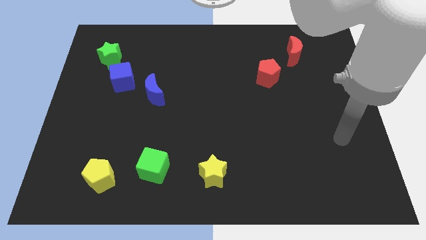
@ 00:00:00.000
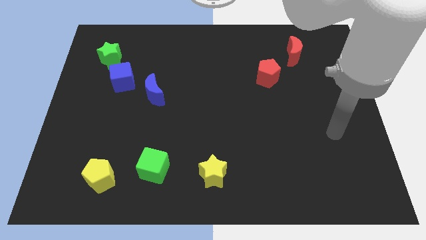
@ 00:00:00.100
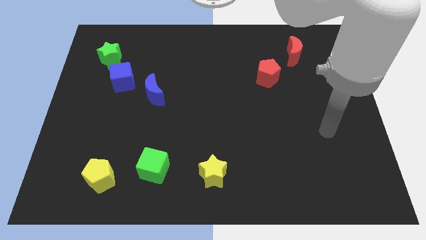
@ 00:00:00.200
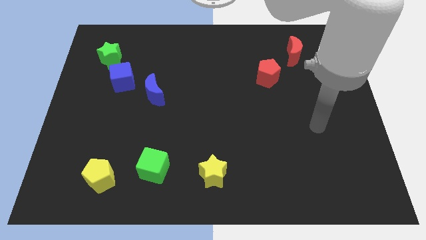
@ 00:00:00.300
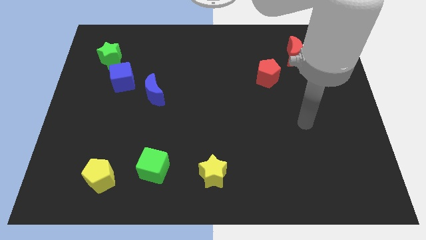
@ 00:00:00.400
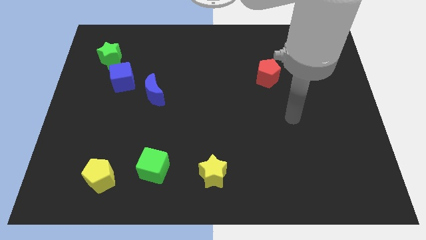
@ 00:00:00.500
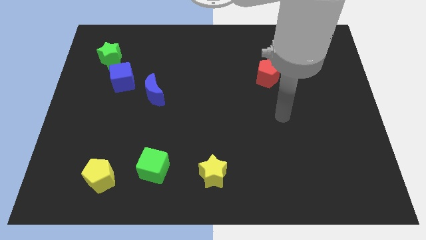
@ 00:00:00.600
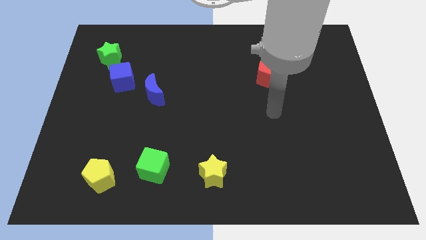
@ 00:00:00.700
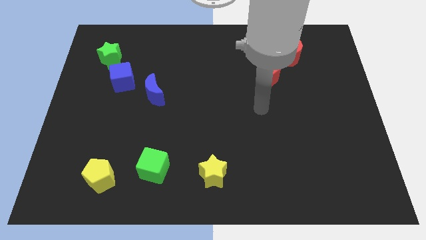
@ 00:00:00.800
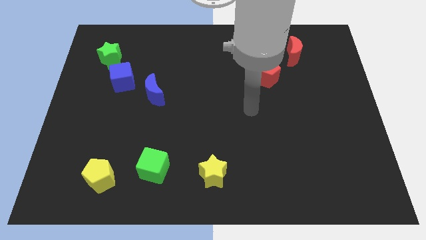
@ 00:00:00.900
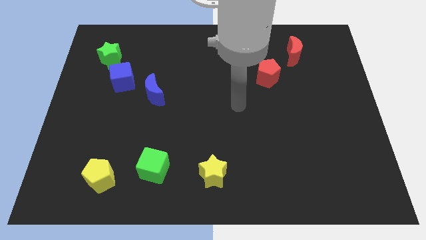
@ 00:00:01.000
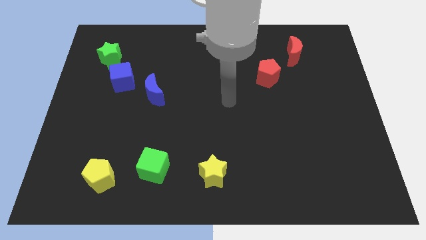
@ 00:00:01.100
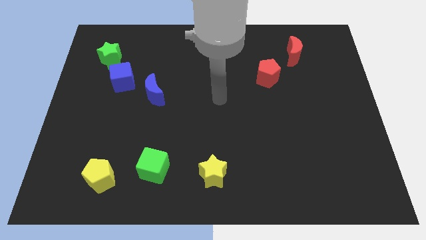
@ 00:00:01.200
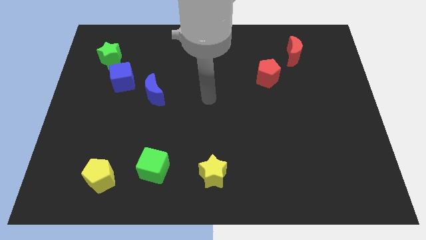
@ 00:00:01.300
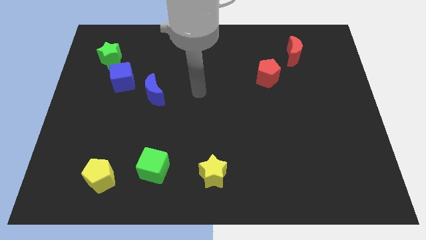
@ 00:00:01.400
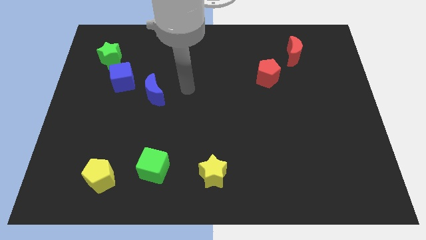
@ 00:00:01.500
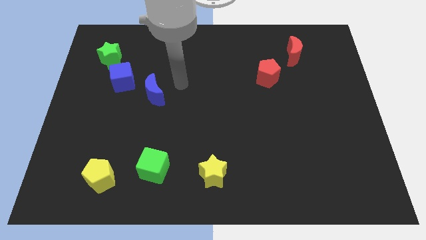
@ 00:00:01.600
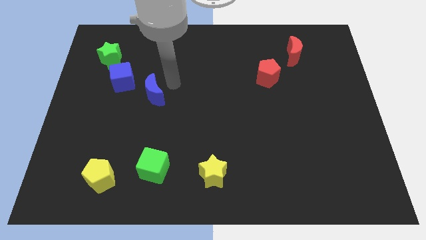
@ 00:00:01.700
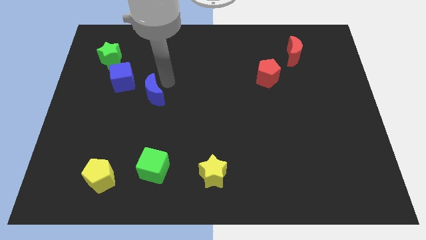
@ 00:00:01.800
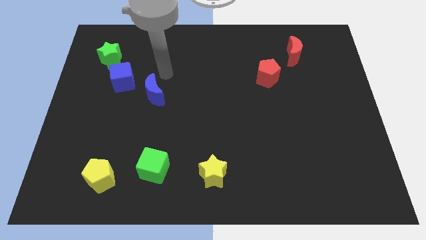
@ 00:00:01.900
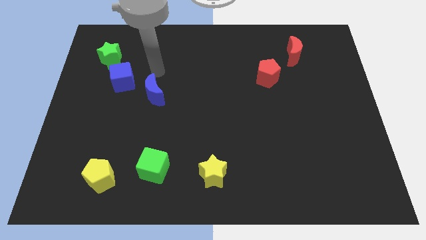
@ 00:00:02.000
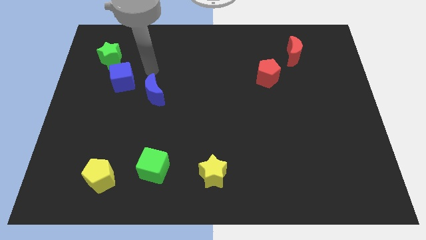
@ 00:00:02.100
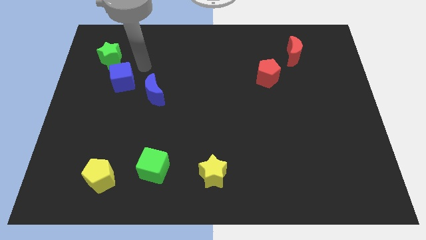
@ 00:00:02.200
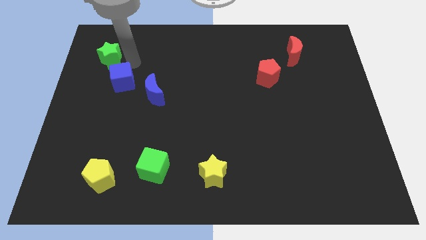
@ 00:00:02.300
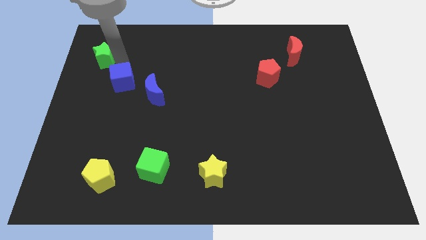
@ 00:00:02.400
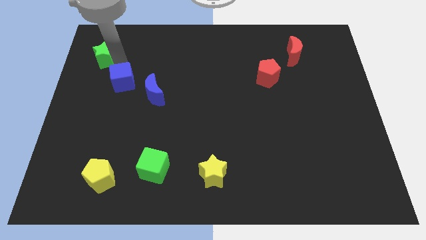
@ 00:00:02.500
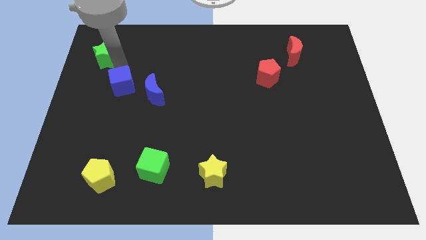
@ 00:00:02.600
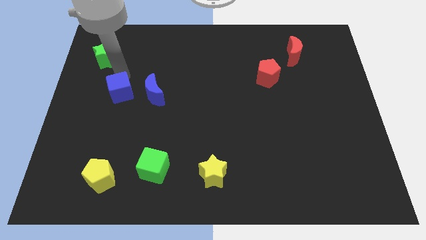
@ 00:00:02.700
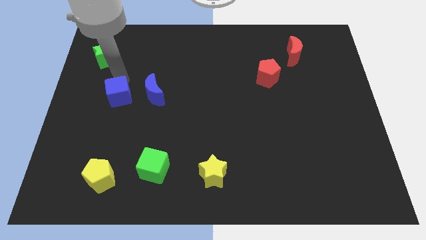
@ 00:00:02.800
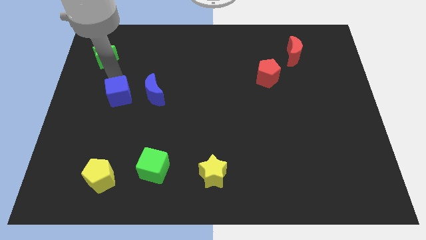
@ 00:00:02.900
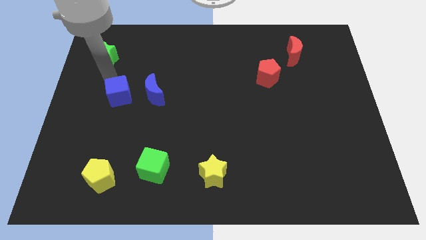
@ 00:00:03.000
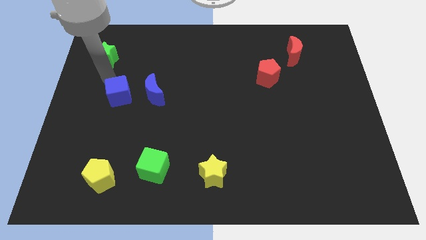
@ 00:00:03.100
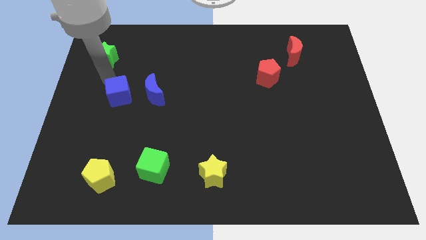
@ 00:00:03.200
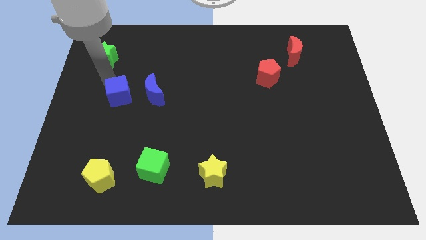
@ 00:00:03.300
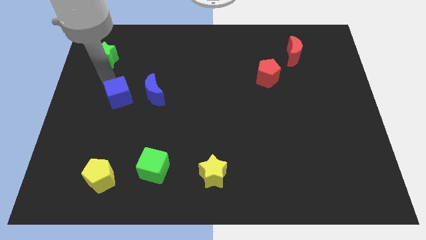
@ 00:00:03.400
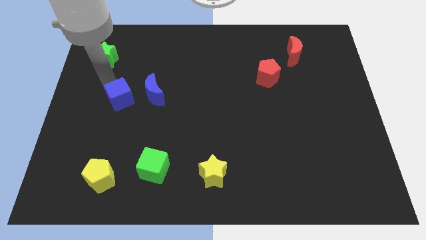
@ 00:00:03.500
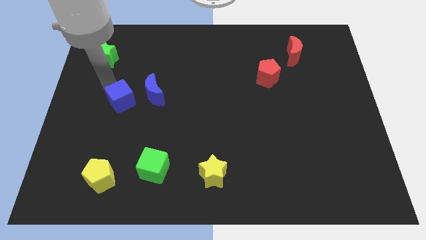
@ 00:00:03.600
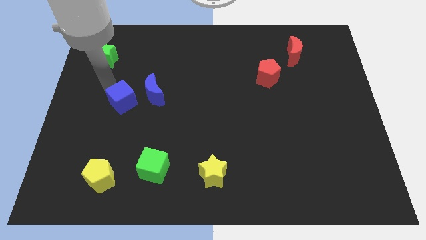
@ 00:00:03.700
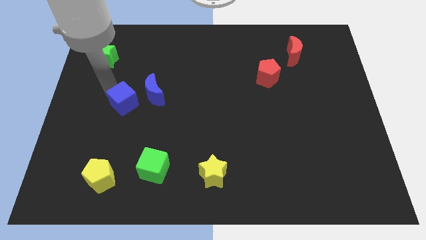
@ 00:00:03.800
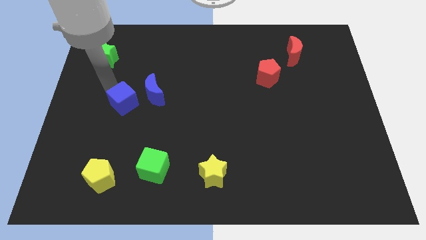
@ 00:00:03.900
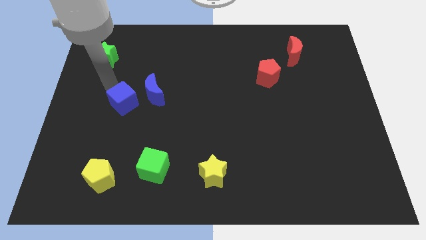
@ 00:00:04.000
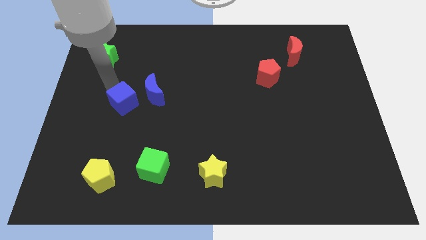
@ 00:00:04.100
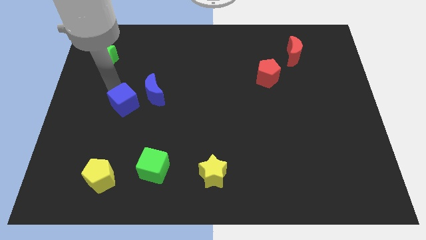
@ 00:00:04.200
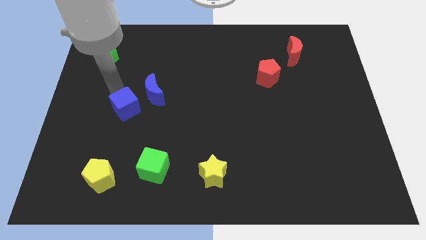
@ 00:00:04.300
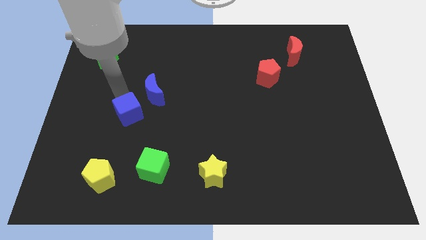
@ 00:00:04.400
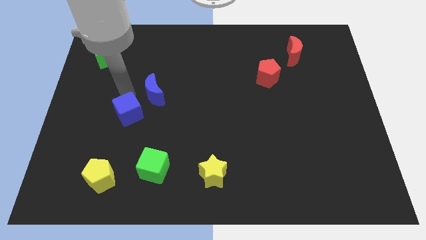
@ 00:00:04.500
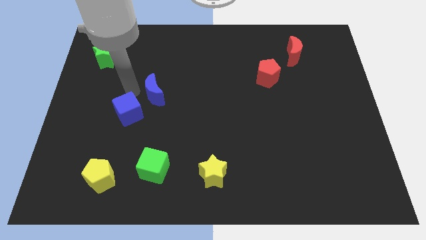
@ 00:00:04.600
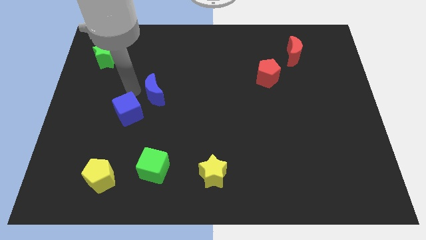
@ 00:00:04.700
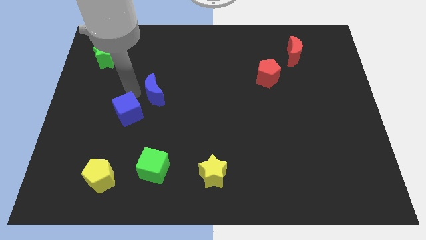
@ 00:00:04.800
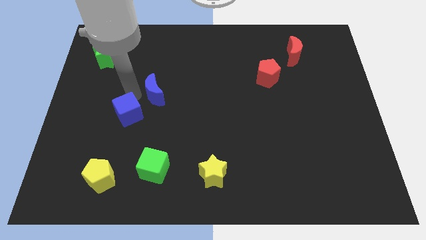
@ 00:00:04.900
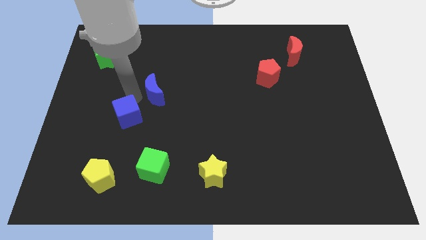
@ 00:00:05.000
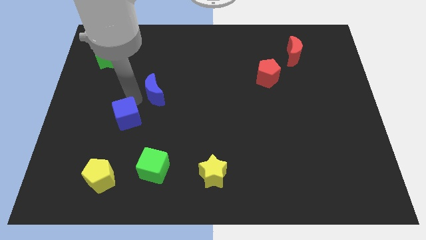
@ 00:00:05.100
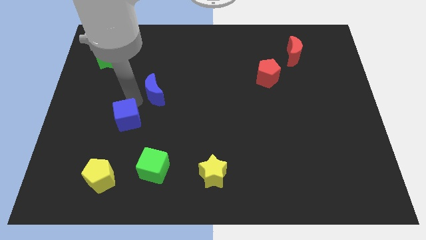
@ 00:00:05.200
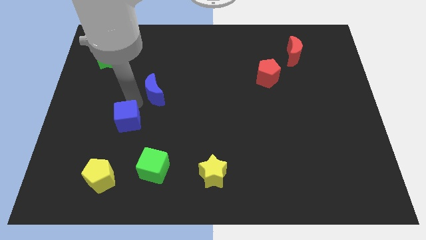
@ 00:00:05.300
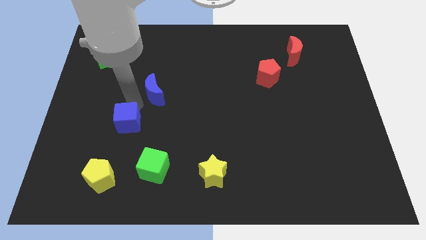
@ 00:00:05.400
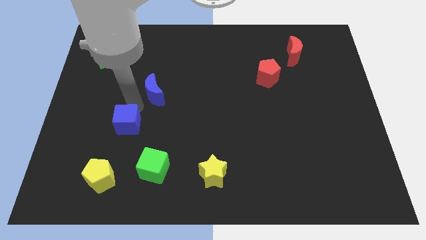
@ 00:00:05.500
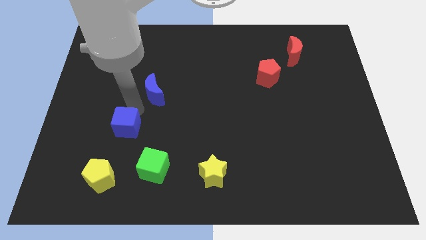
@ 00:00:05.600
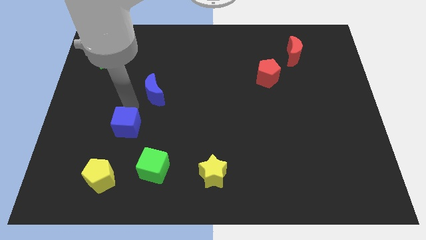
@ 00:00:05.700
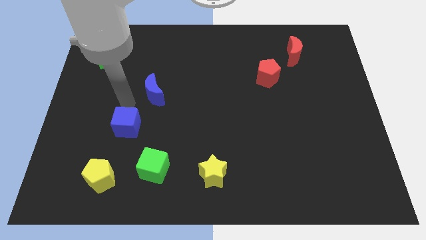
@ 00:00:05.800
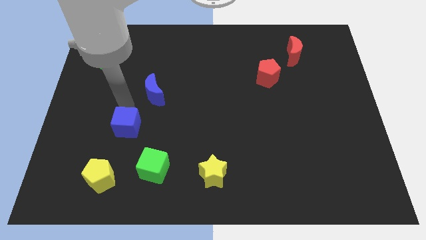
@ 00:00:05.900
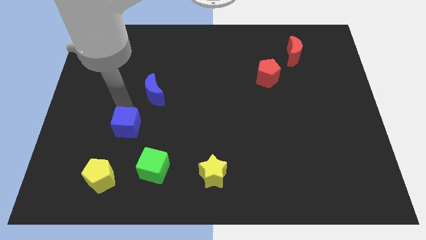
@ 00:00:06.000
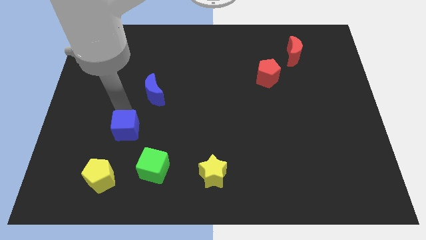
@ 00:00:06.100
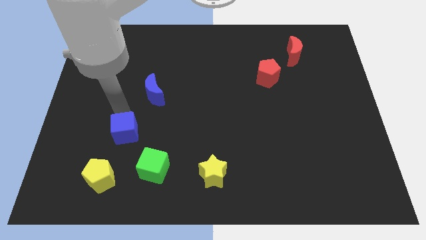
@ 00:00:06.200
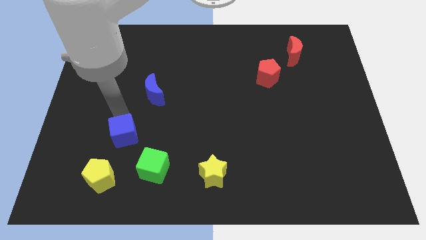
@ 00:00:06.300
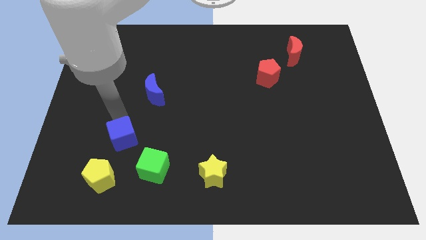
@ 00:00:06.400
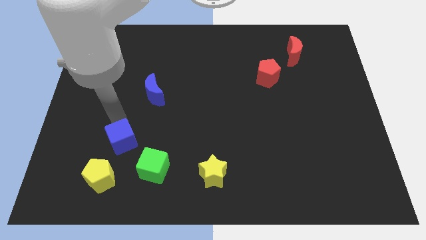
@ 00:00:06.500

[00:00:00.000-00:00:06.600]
put the blue cube to the top right side of the yellow pentagon

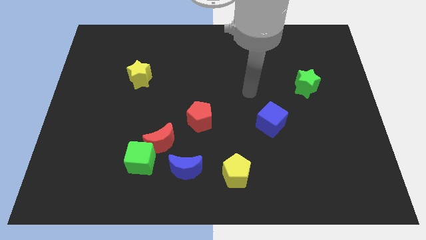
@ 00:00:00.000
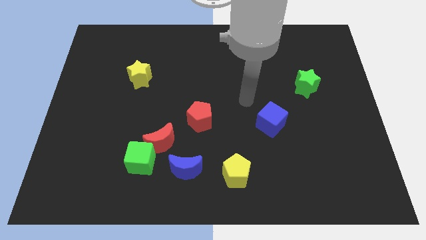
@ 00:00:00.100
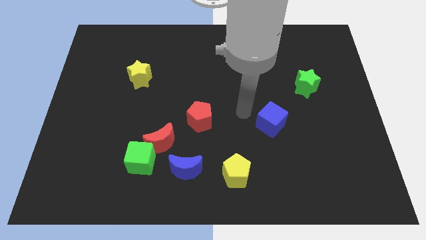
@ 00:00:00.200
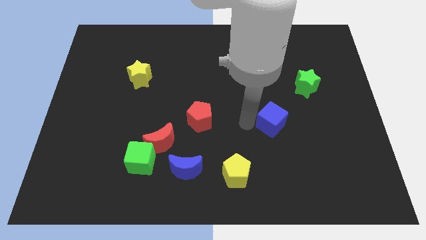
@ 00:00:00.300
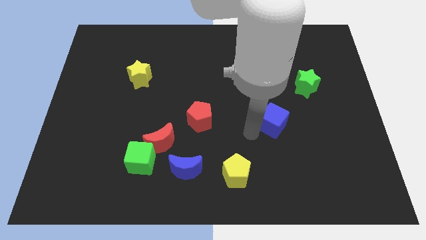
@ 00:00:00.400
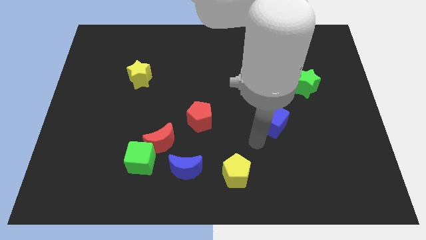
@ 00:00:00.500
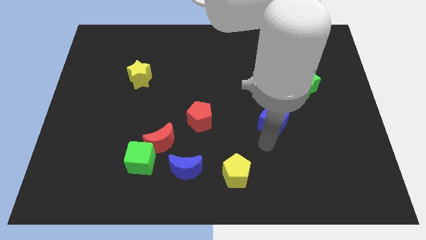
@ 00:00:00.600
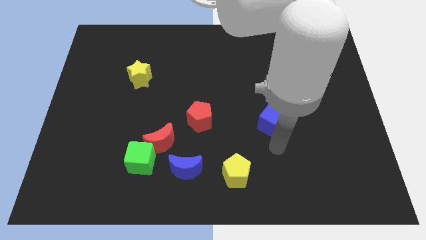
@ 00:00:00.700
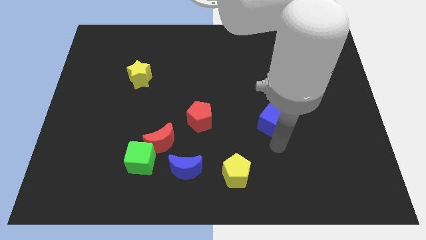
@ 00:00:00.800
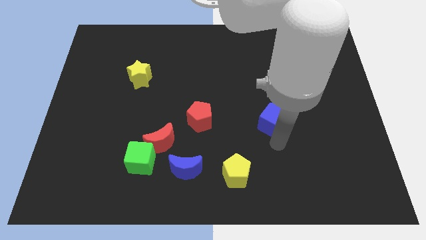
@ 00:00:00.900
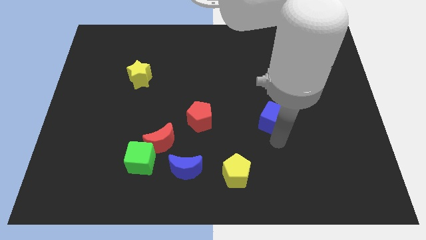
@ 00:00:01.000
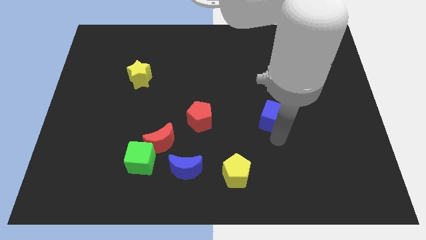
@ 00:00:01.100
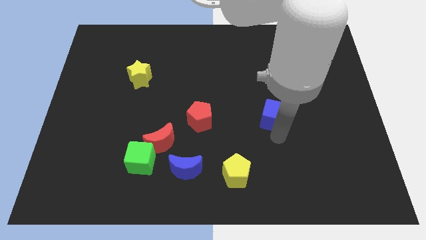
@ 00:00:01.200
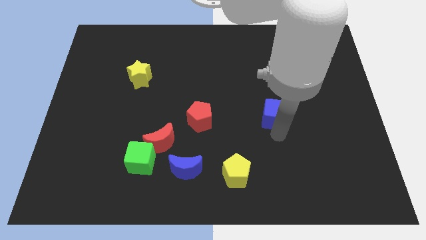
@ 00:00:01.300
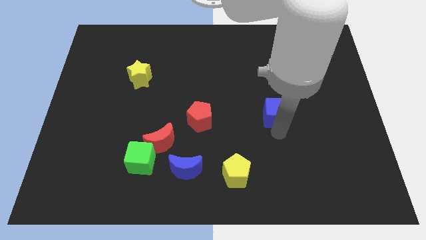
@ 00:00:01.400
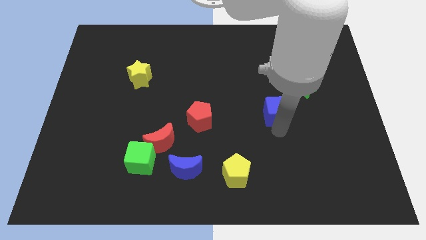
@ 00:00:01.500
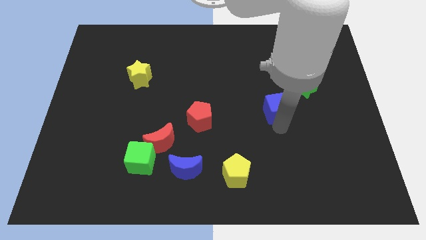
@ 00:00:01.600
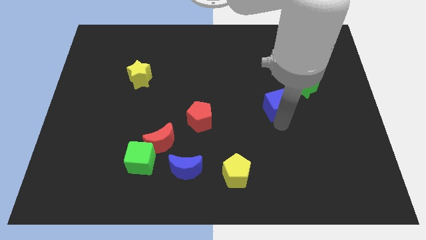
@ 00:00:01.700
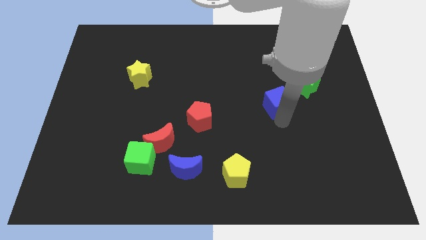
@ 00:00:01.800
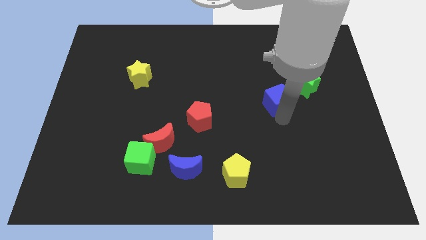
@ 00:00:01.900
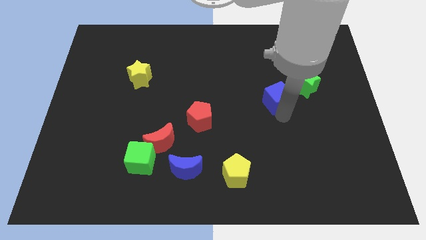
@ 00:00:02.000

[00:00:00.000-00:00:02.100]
push the blue cube left of the green star
